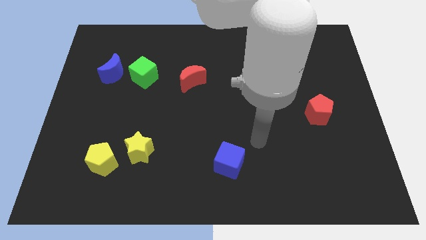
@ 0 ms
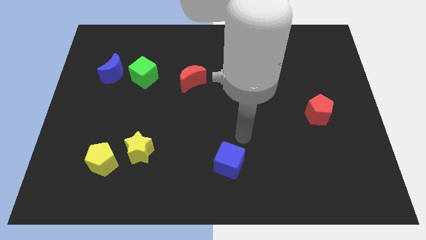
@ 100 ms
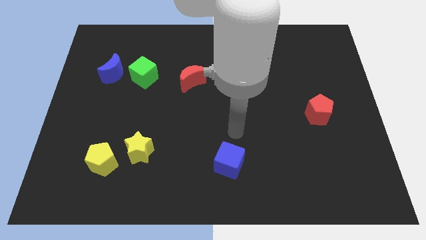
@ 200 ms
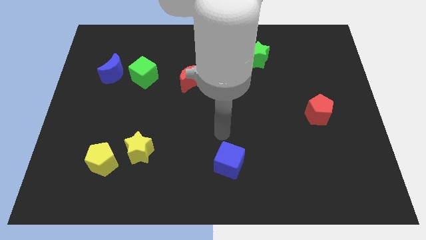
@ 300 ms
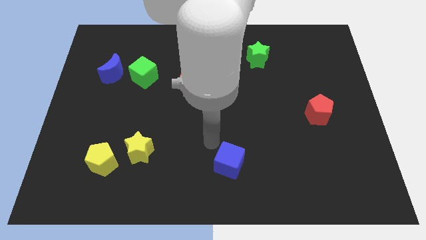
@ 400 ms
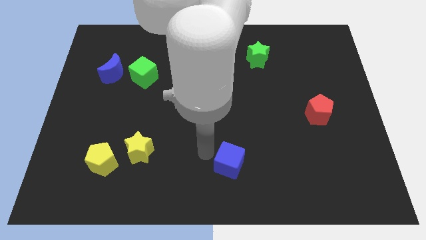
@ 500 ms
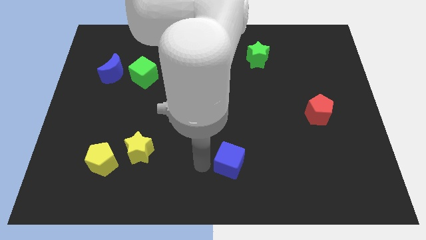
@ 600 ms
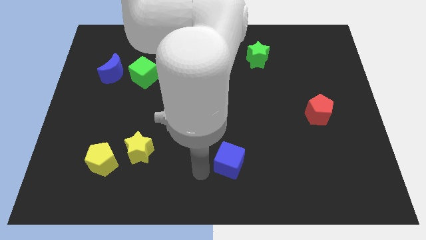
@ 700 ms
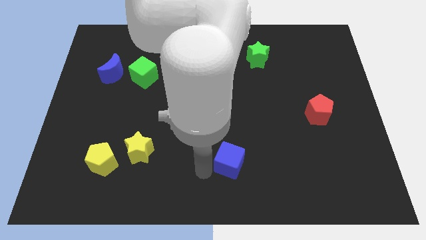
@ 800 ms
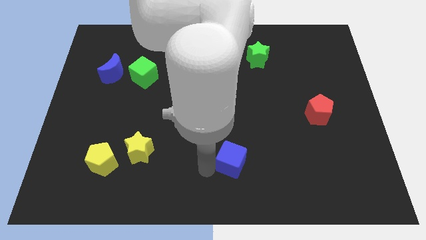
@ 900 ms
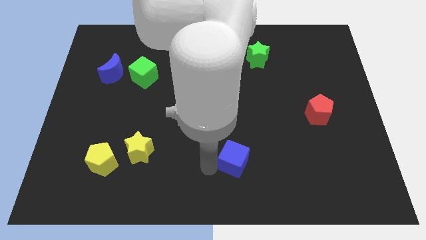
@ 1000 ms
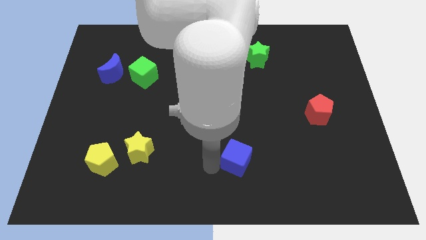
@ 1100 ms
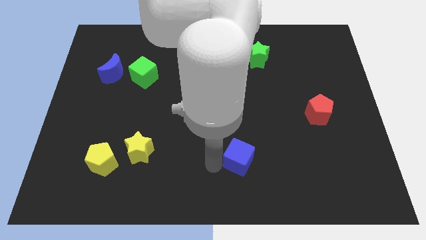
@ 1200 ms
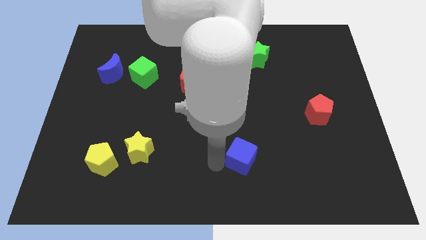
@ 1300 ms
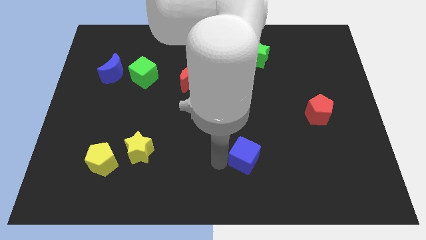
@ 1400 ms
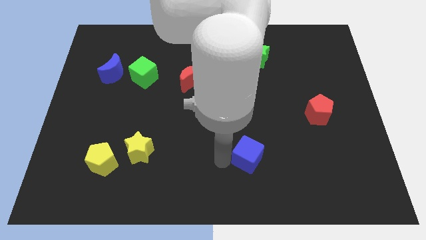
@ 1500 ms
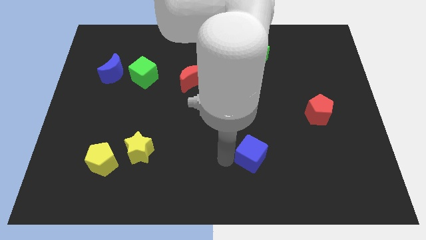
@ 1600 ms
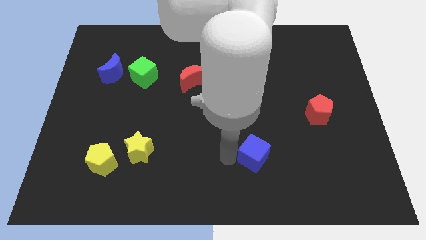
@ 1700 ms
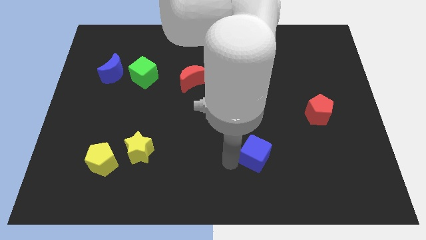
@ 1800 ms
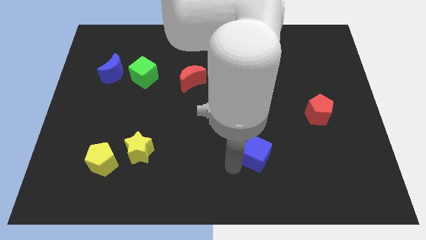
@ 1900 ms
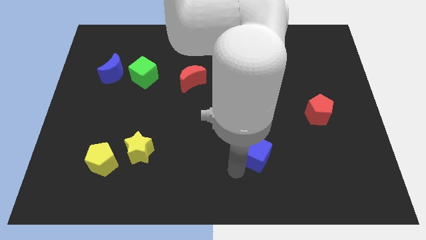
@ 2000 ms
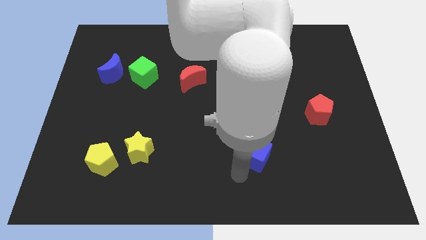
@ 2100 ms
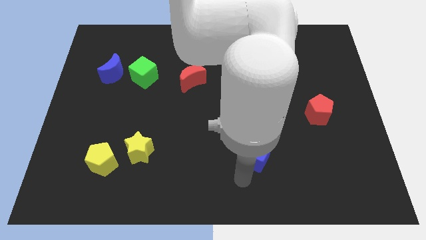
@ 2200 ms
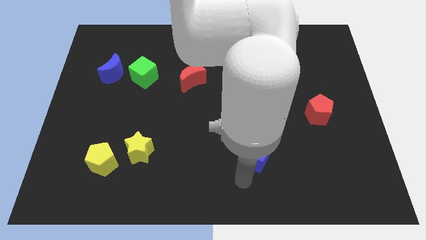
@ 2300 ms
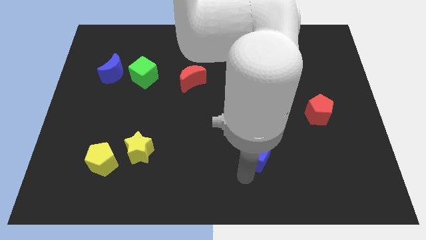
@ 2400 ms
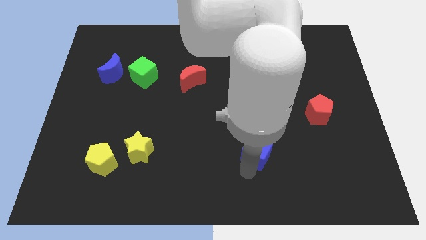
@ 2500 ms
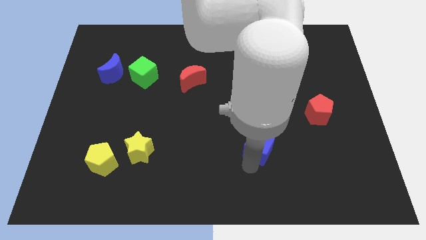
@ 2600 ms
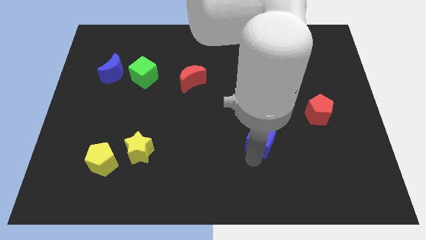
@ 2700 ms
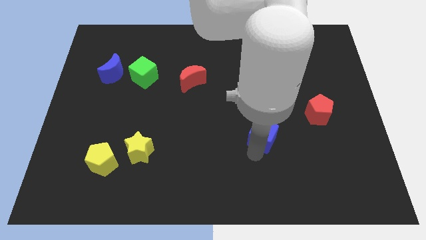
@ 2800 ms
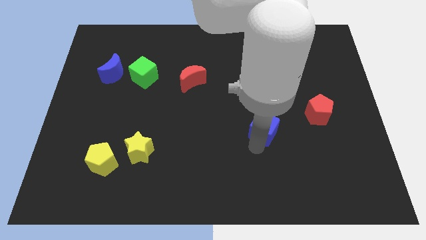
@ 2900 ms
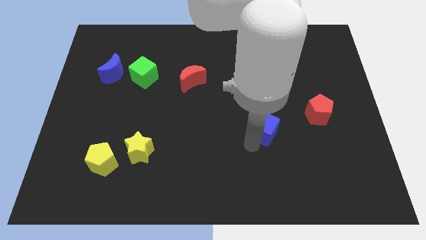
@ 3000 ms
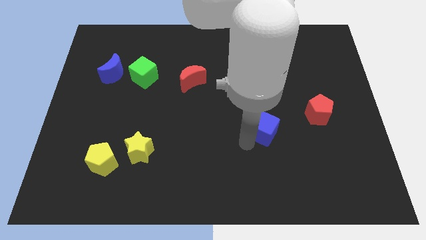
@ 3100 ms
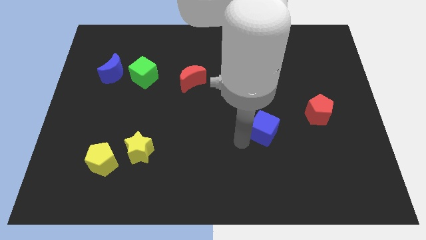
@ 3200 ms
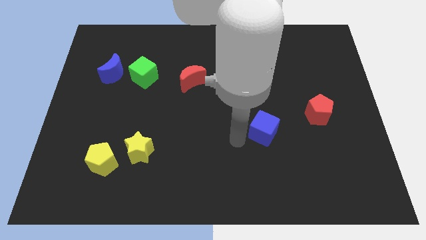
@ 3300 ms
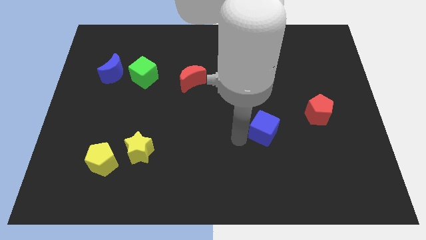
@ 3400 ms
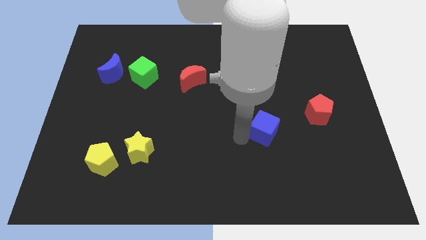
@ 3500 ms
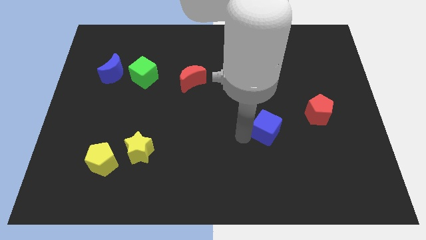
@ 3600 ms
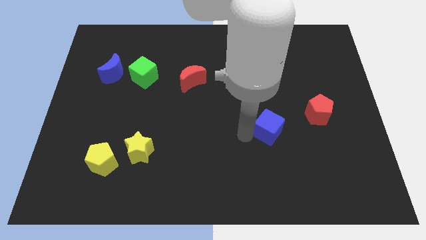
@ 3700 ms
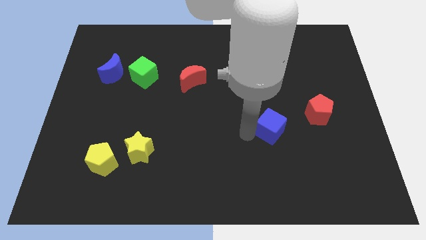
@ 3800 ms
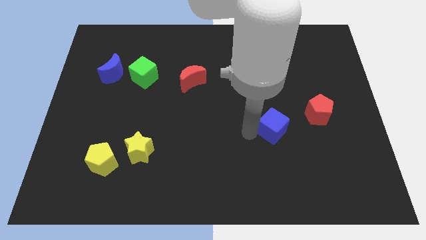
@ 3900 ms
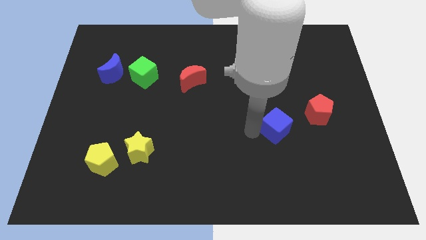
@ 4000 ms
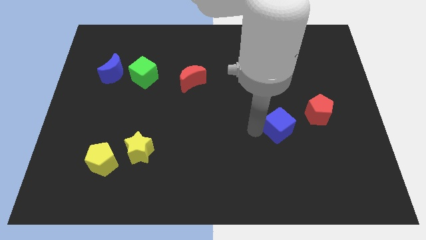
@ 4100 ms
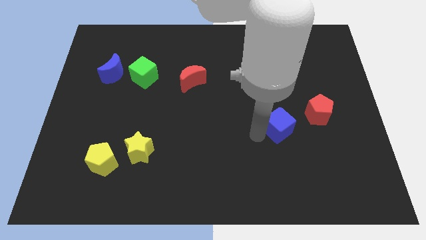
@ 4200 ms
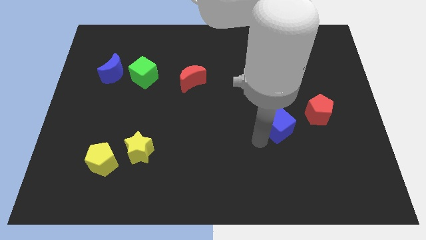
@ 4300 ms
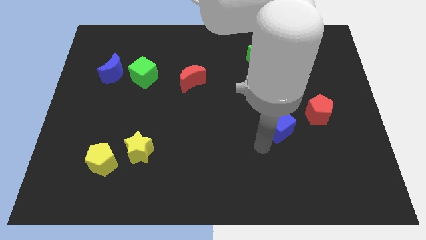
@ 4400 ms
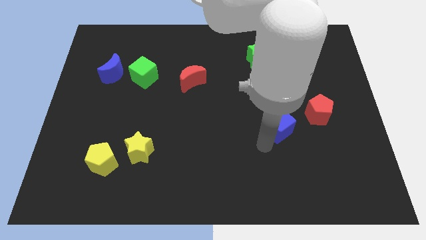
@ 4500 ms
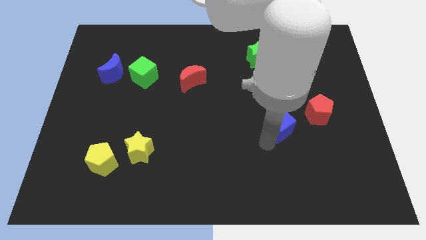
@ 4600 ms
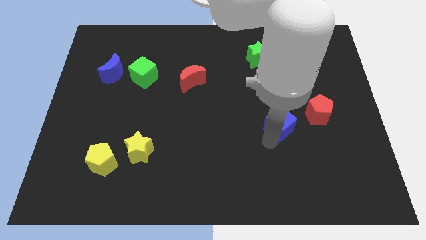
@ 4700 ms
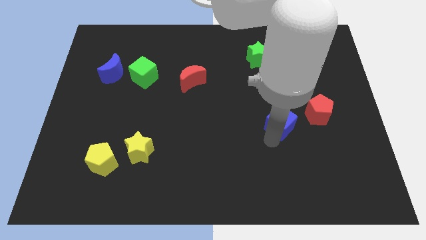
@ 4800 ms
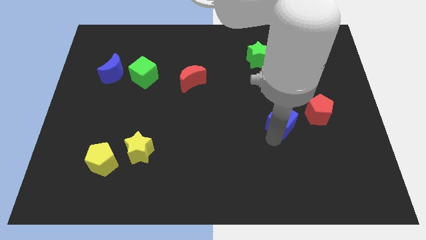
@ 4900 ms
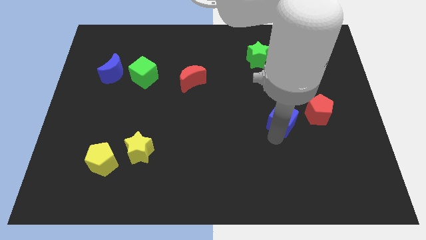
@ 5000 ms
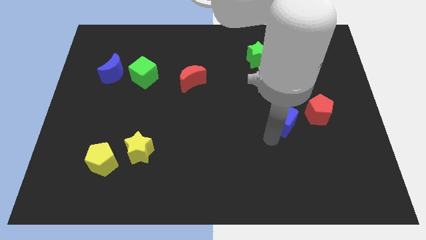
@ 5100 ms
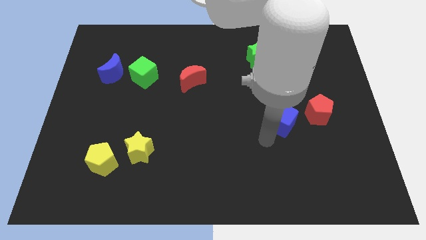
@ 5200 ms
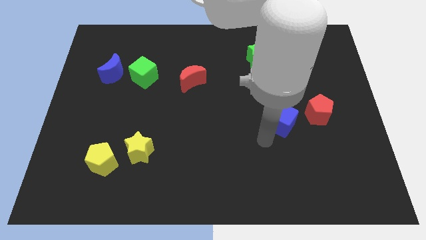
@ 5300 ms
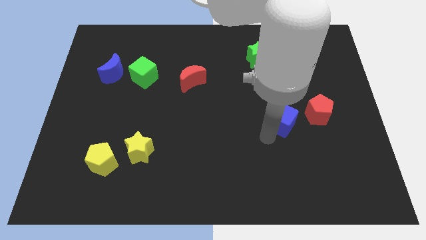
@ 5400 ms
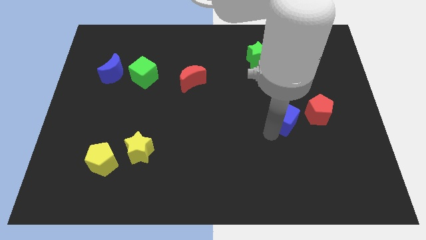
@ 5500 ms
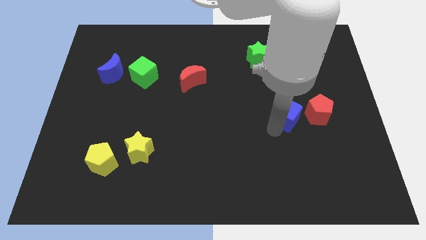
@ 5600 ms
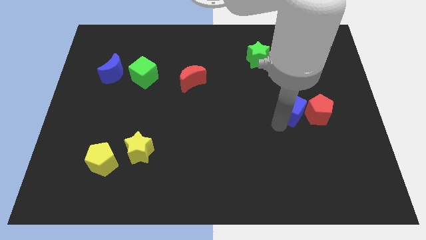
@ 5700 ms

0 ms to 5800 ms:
push the blue cube upwards and then to the right

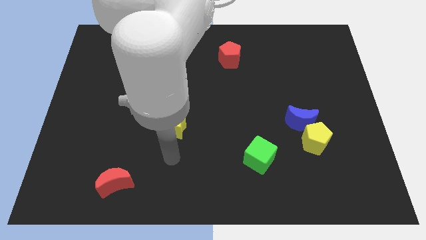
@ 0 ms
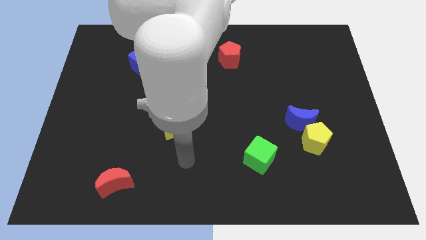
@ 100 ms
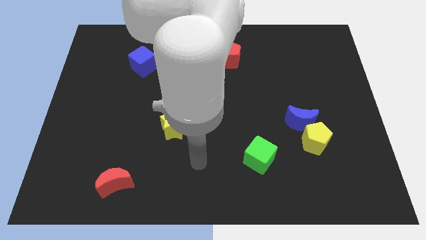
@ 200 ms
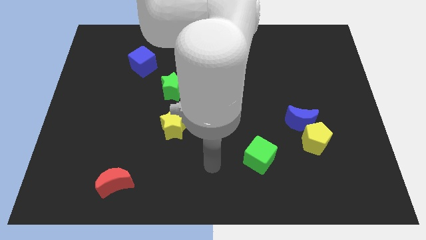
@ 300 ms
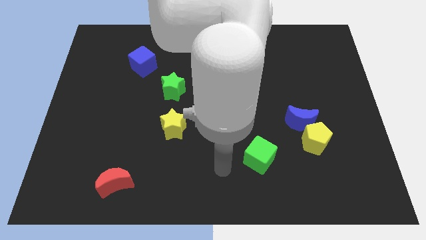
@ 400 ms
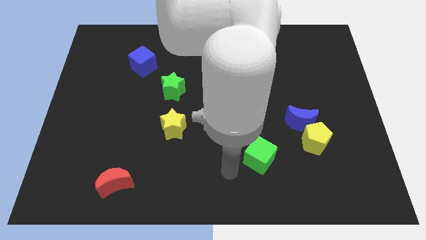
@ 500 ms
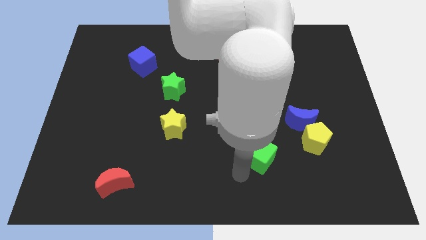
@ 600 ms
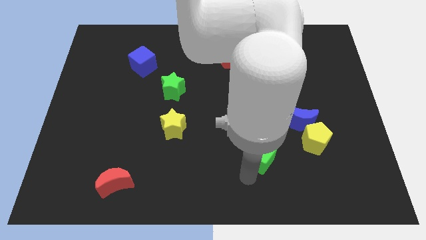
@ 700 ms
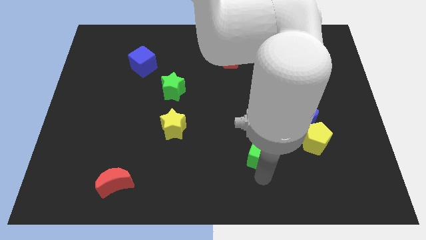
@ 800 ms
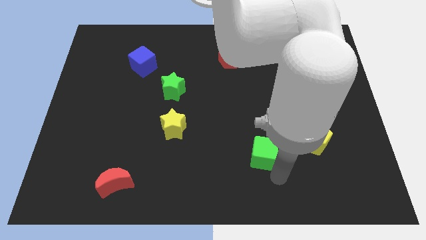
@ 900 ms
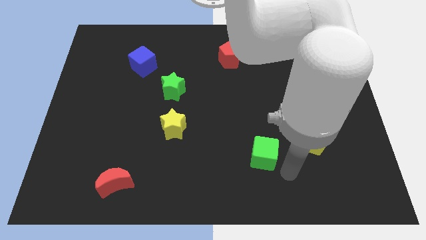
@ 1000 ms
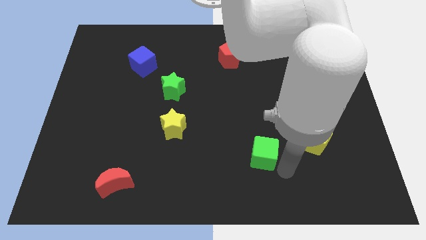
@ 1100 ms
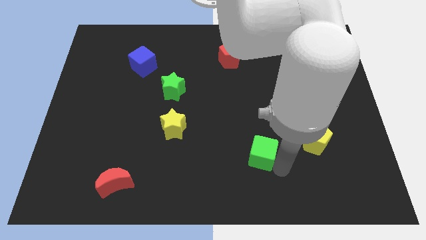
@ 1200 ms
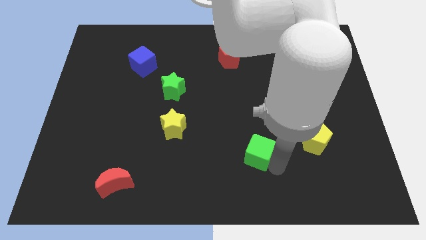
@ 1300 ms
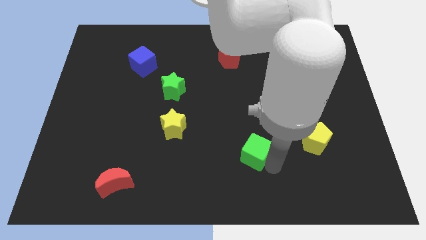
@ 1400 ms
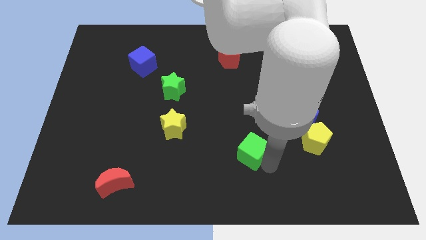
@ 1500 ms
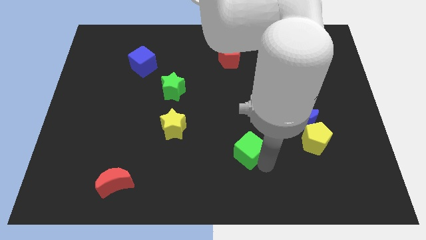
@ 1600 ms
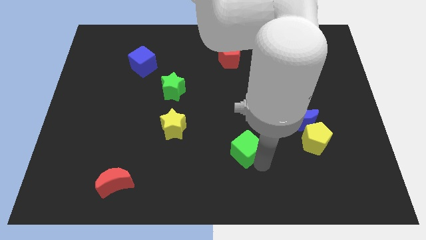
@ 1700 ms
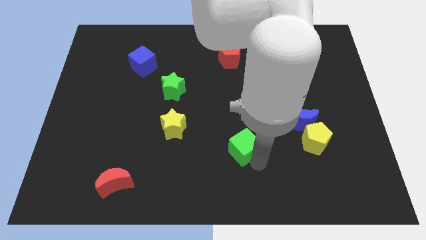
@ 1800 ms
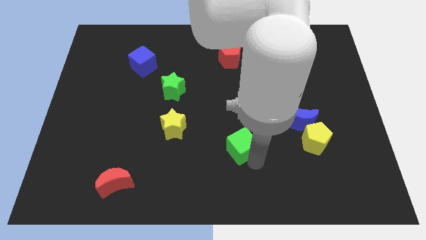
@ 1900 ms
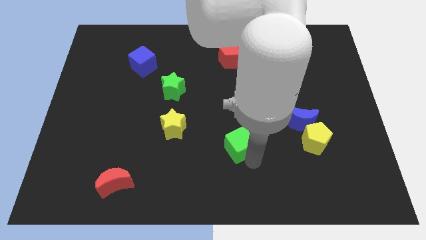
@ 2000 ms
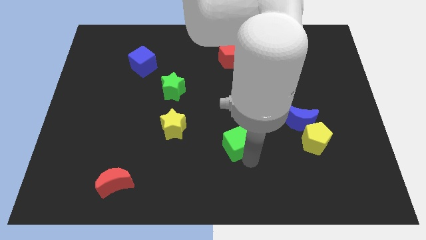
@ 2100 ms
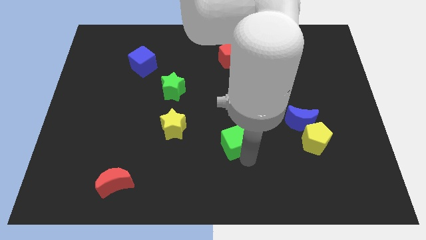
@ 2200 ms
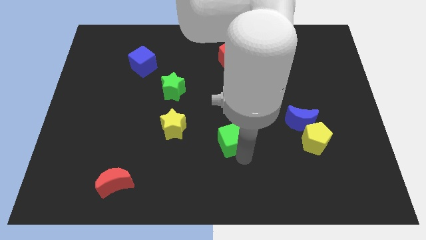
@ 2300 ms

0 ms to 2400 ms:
push the green cube a little bit up and left
